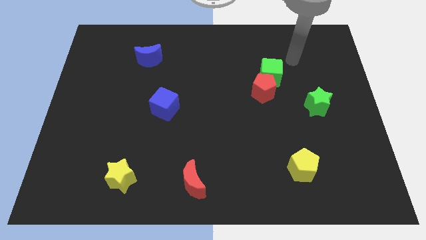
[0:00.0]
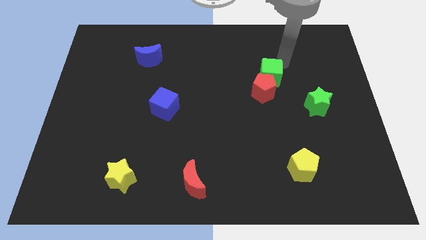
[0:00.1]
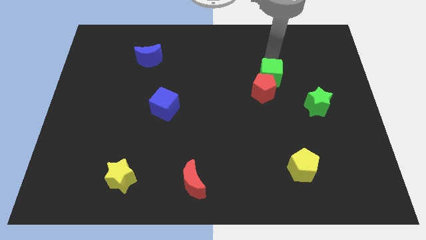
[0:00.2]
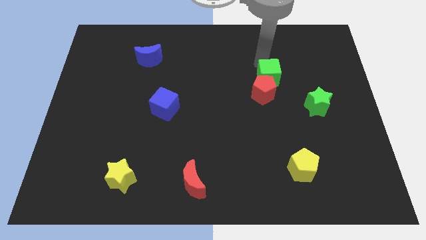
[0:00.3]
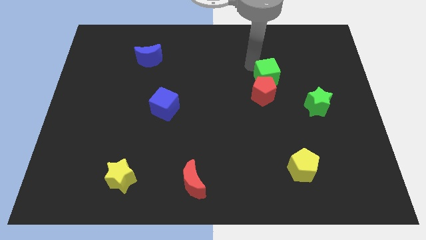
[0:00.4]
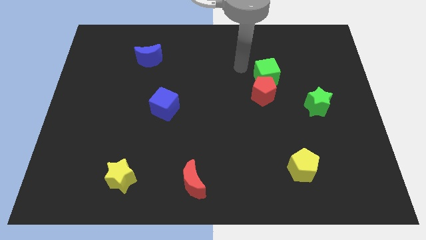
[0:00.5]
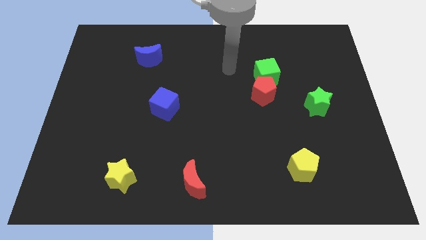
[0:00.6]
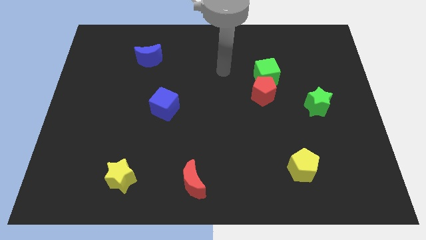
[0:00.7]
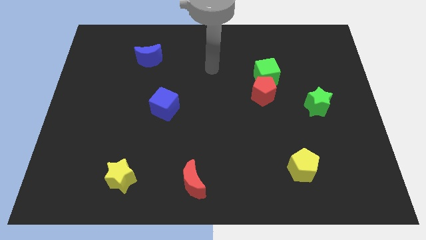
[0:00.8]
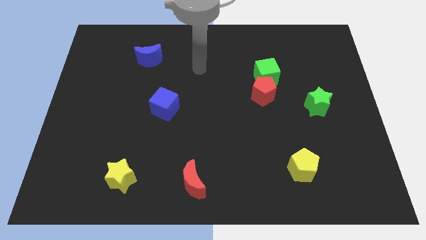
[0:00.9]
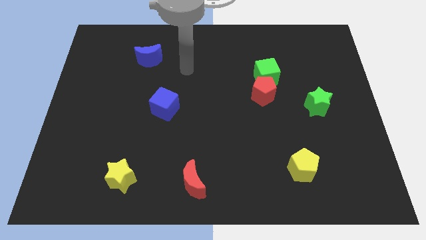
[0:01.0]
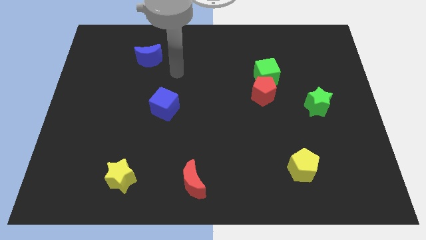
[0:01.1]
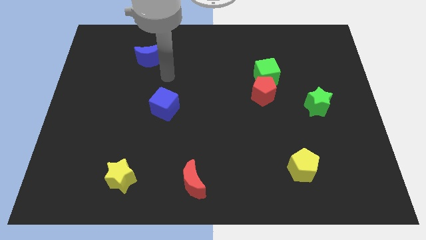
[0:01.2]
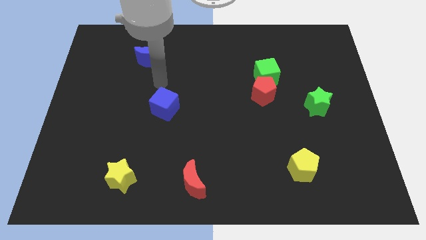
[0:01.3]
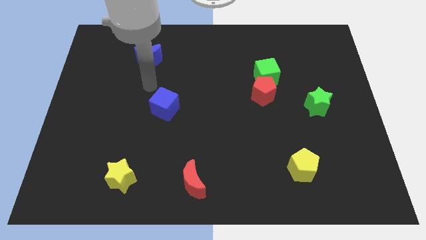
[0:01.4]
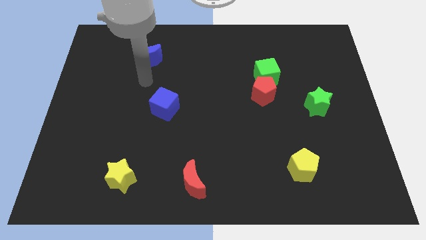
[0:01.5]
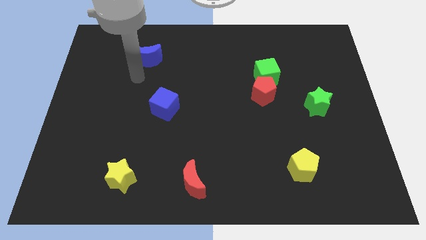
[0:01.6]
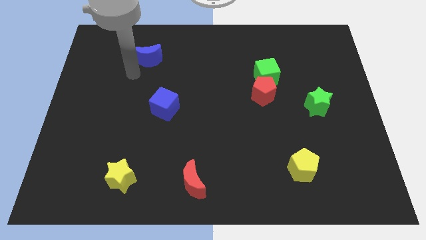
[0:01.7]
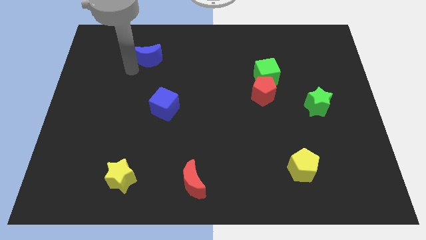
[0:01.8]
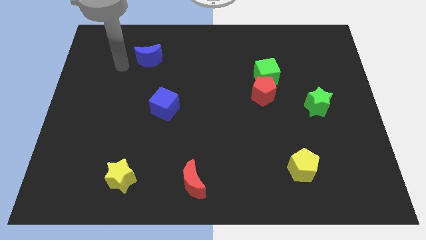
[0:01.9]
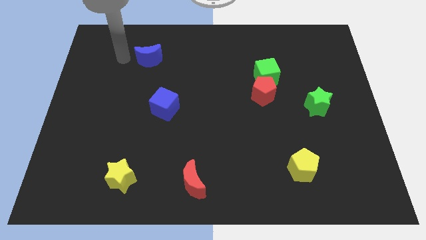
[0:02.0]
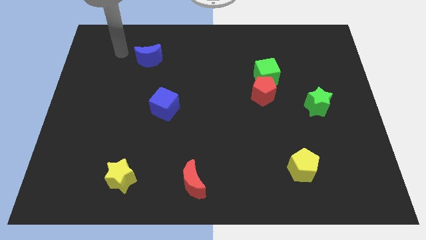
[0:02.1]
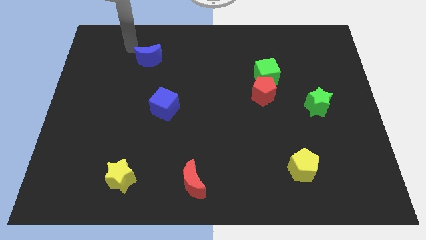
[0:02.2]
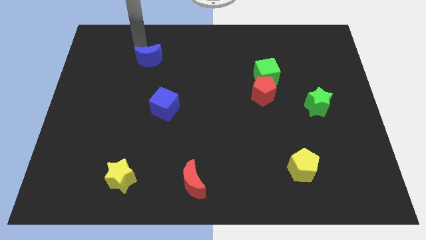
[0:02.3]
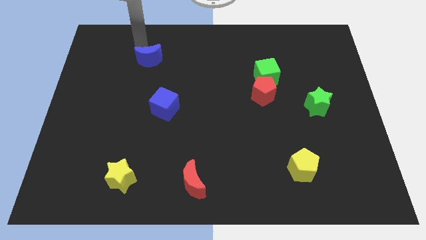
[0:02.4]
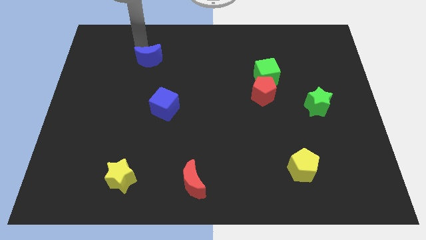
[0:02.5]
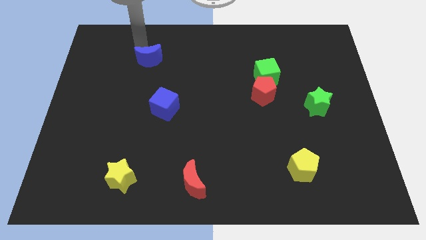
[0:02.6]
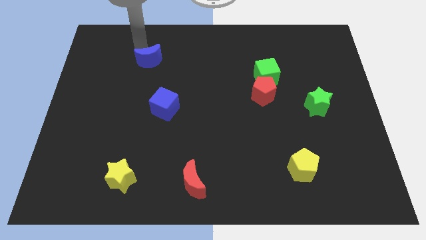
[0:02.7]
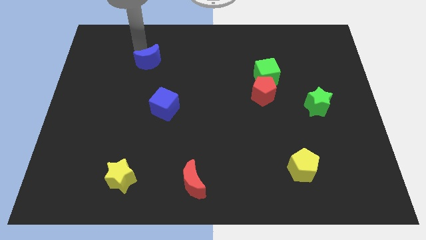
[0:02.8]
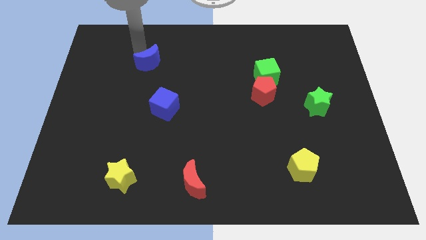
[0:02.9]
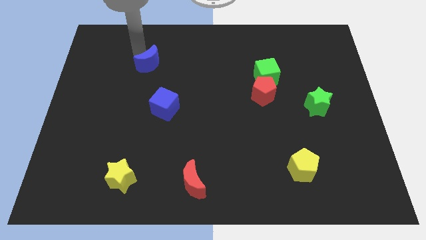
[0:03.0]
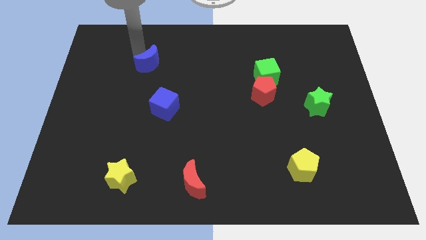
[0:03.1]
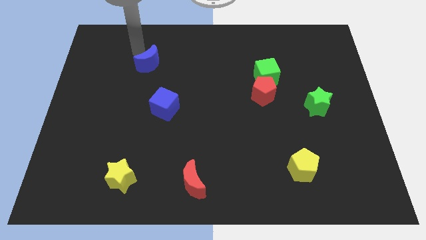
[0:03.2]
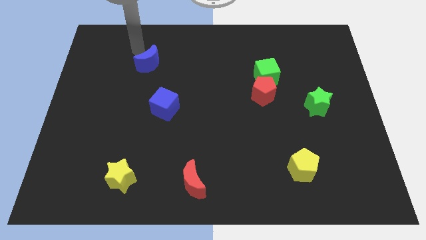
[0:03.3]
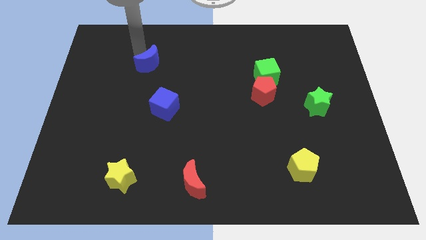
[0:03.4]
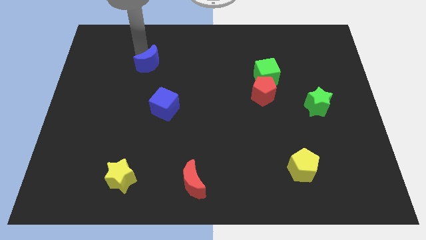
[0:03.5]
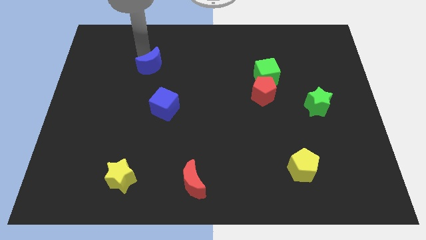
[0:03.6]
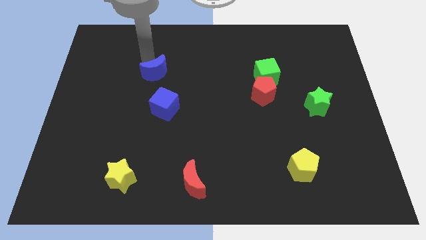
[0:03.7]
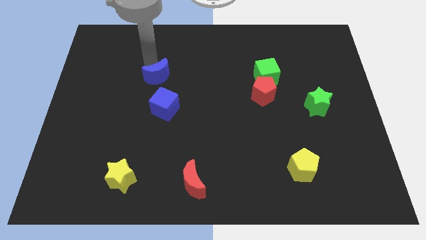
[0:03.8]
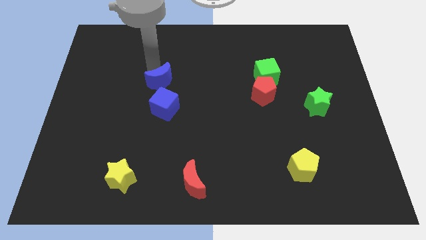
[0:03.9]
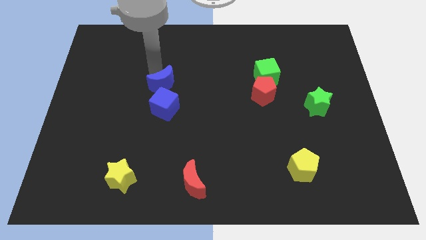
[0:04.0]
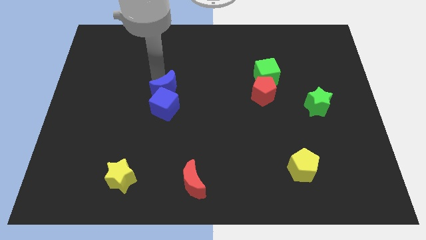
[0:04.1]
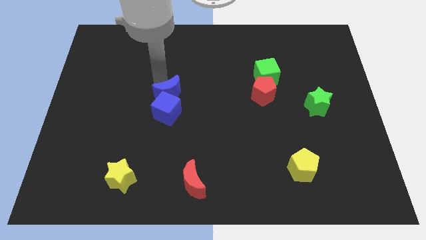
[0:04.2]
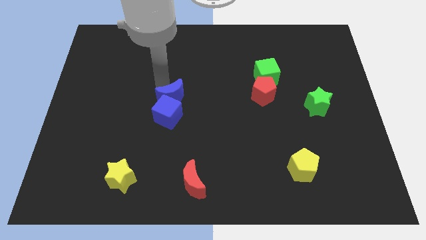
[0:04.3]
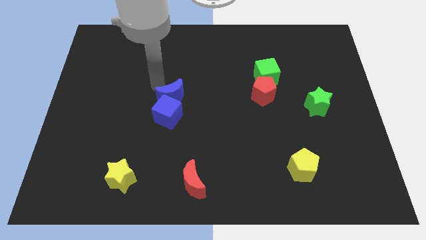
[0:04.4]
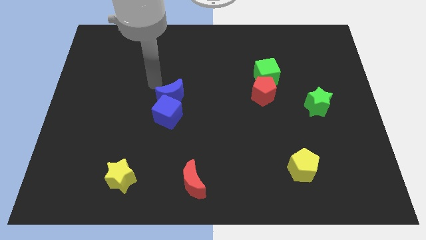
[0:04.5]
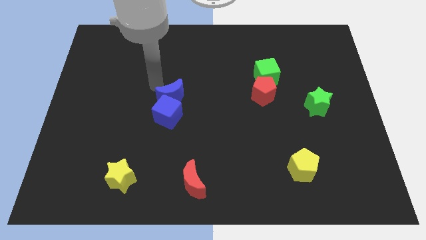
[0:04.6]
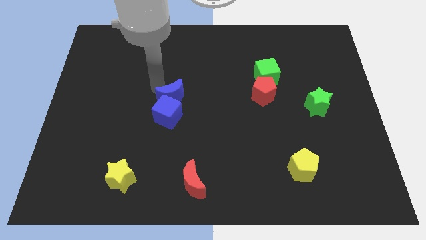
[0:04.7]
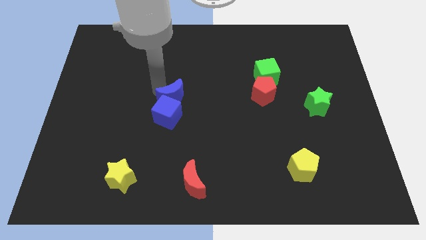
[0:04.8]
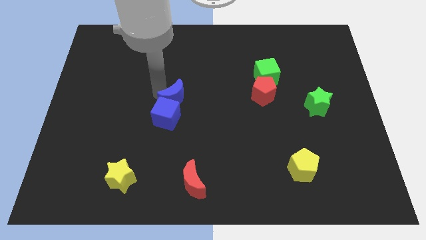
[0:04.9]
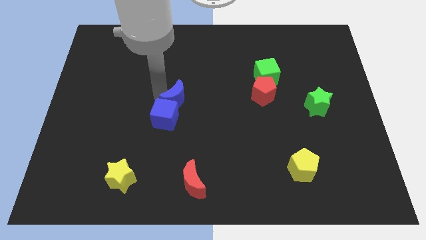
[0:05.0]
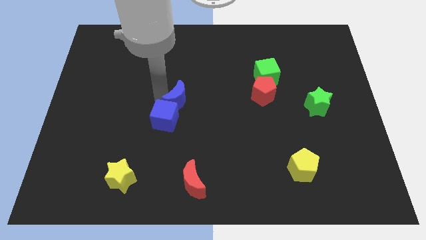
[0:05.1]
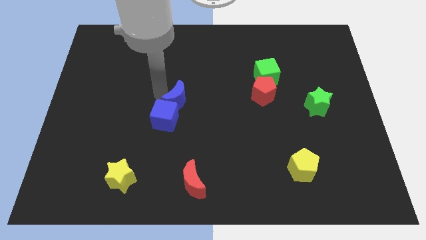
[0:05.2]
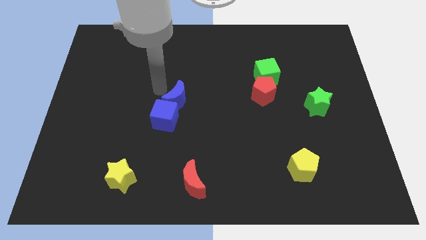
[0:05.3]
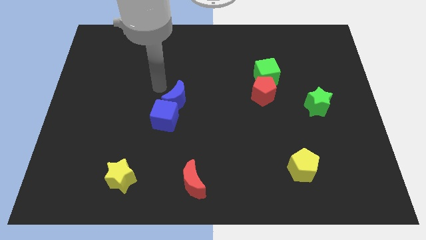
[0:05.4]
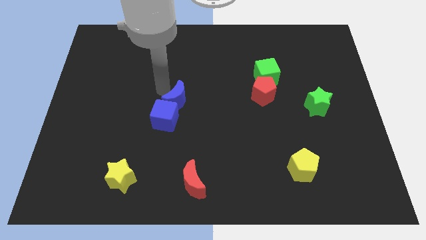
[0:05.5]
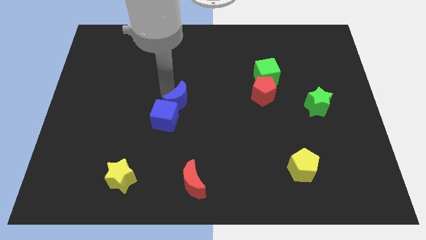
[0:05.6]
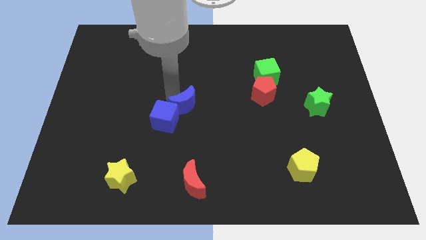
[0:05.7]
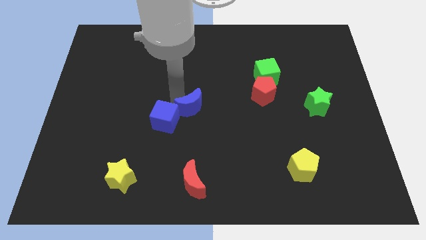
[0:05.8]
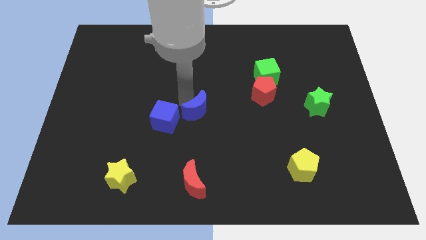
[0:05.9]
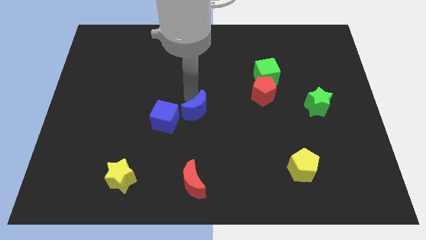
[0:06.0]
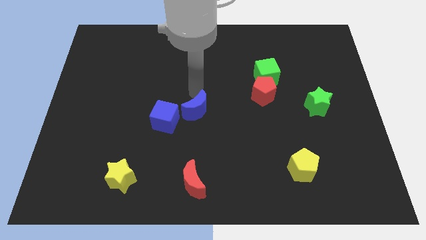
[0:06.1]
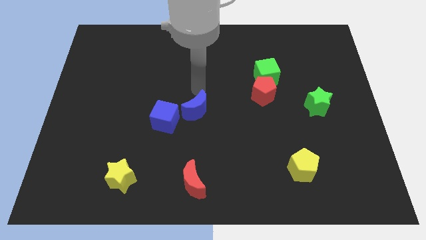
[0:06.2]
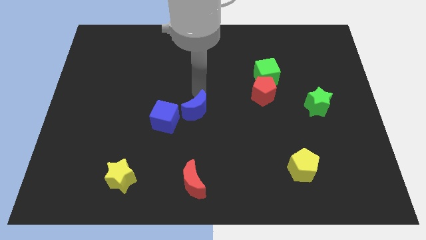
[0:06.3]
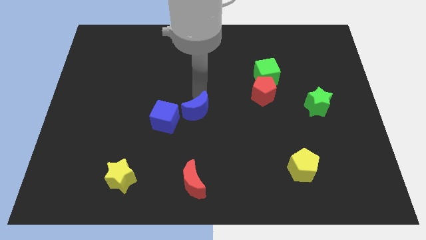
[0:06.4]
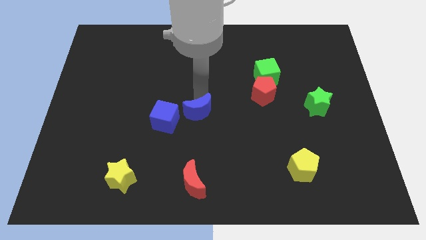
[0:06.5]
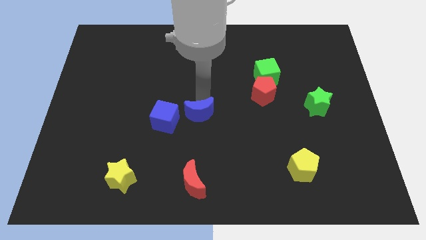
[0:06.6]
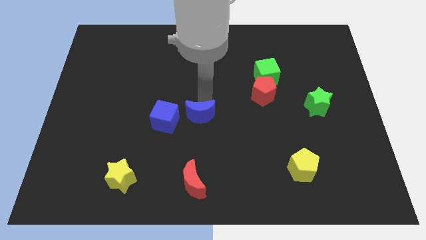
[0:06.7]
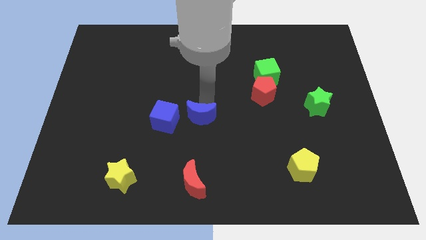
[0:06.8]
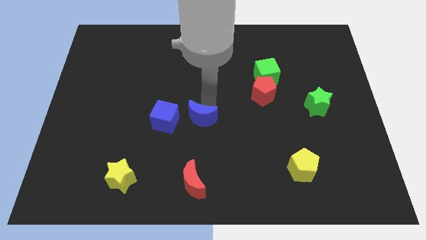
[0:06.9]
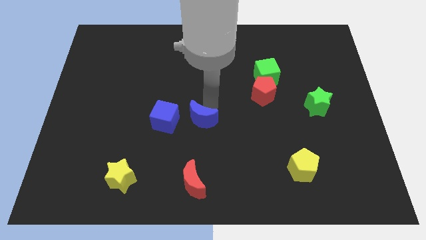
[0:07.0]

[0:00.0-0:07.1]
move the blue moon to the top of the red moon
